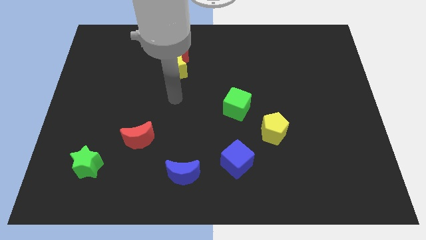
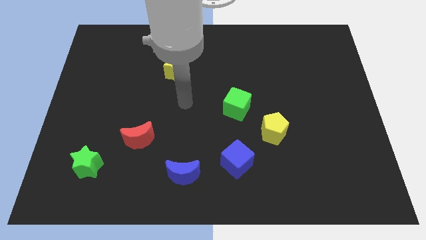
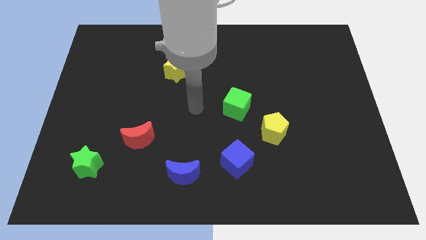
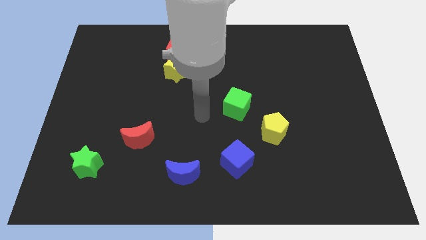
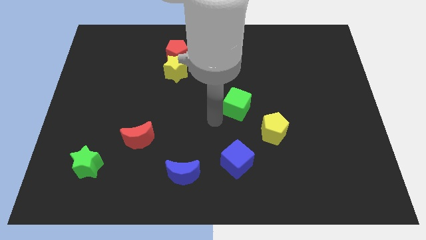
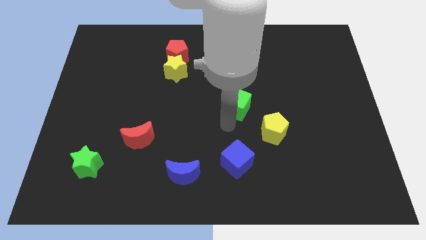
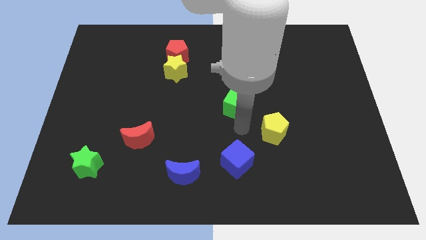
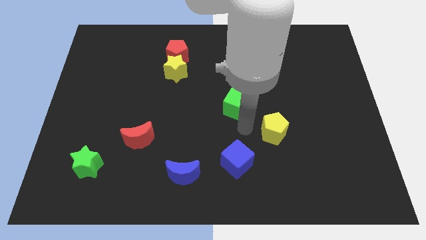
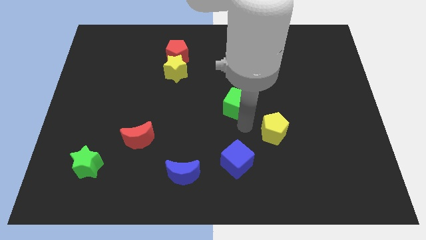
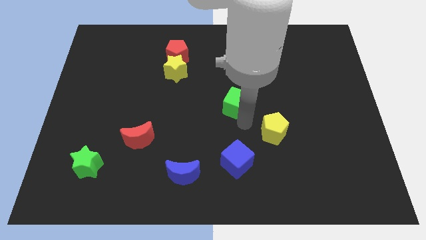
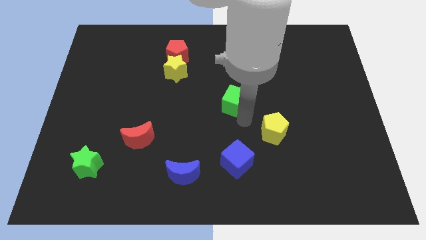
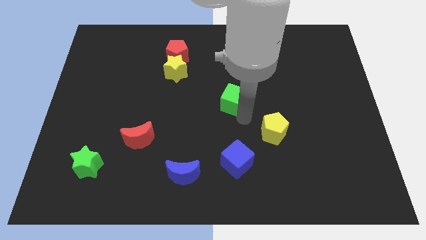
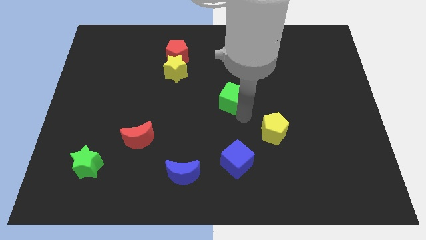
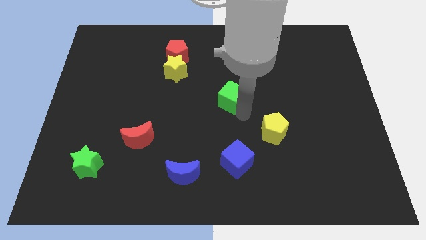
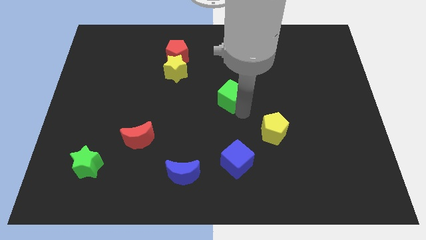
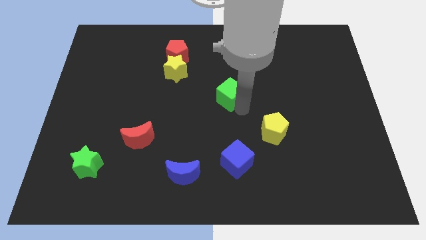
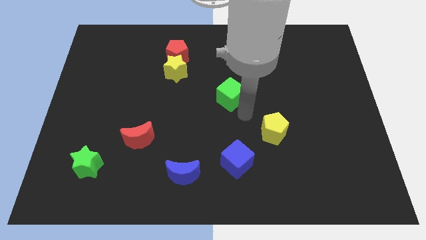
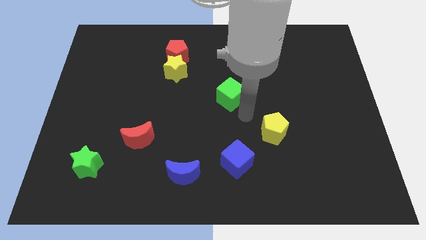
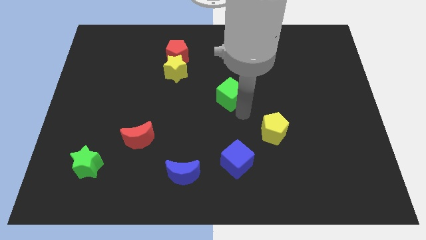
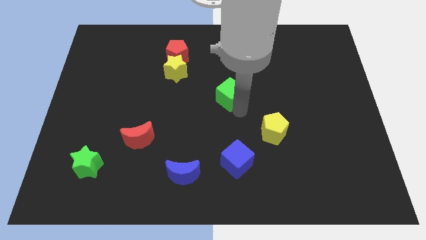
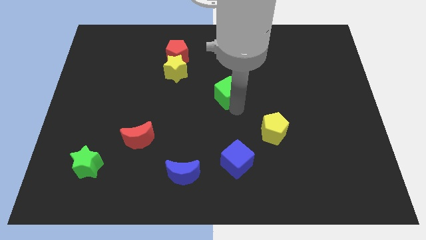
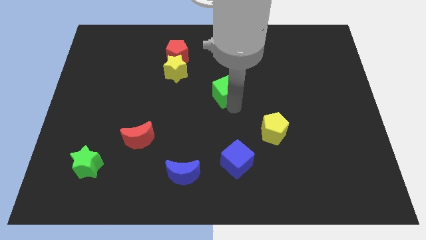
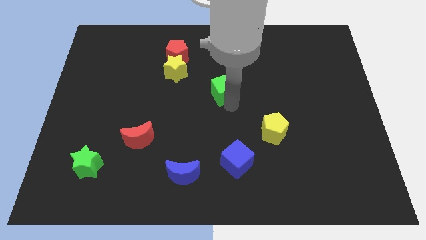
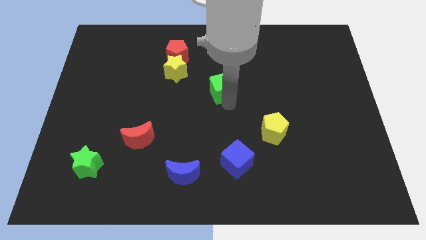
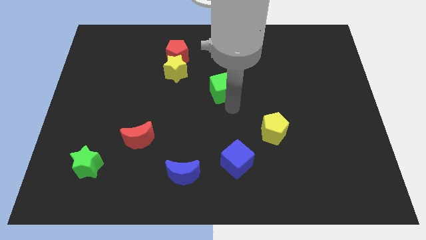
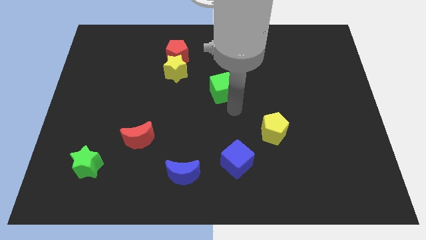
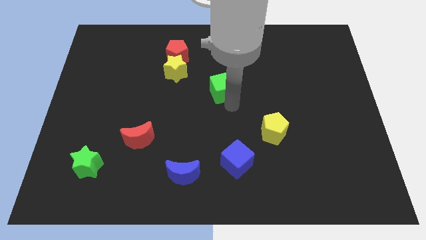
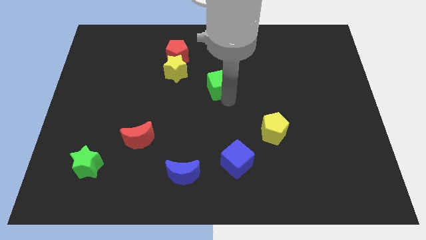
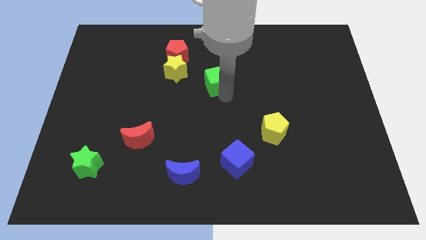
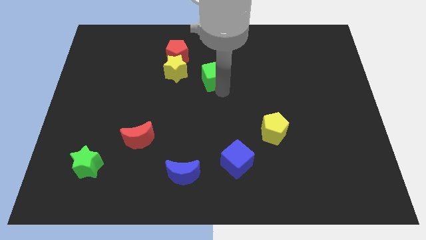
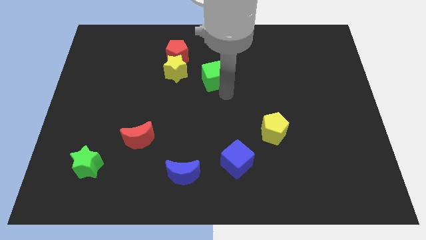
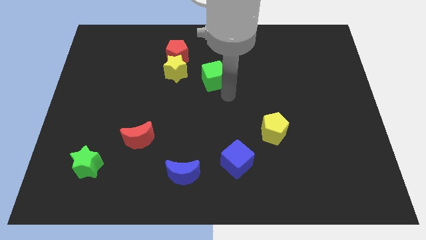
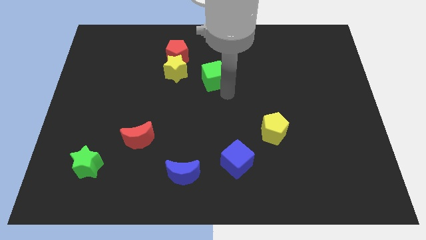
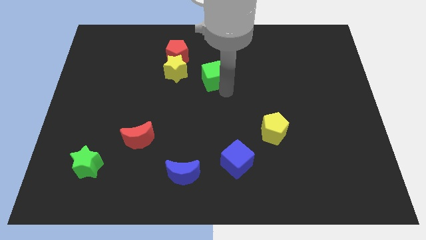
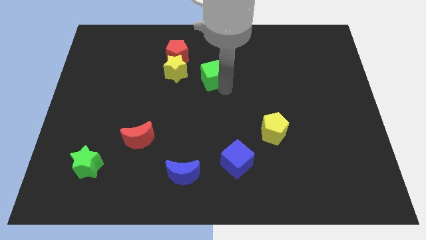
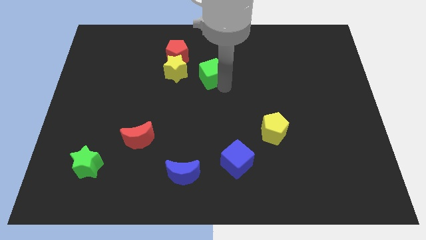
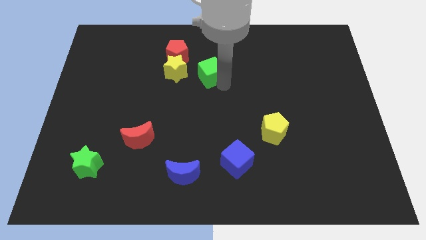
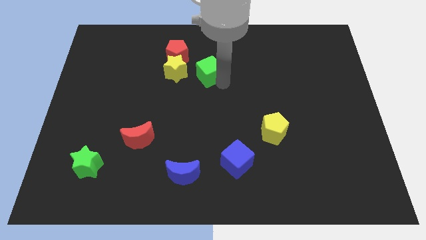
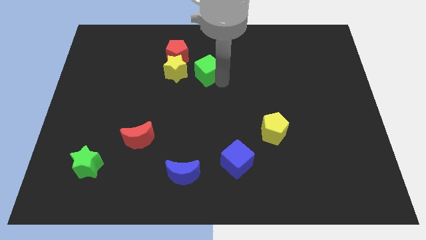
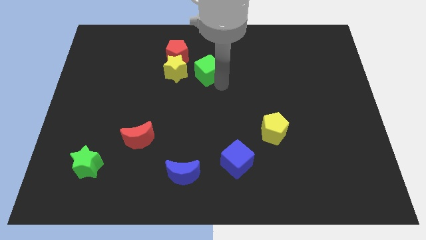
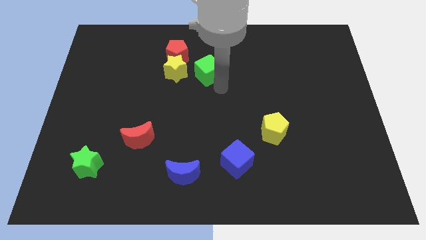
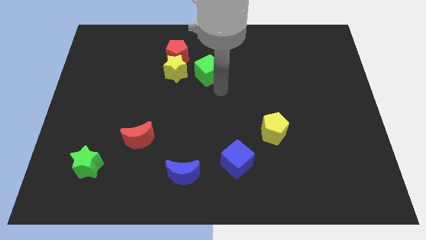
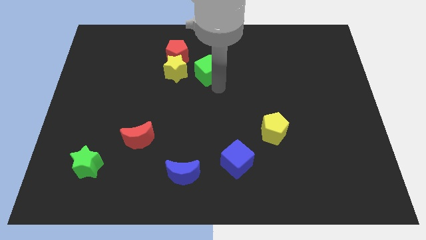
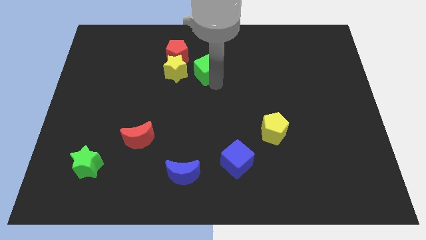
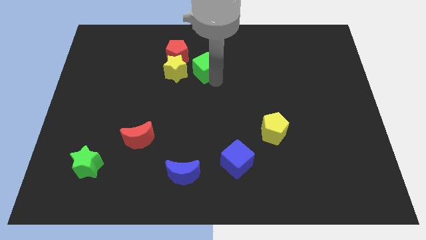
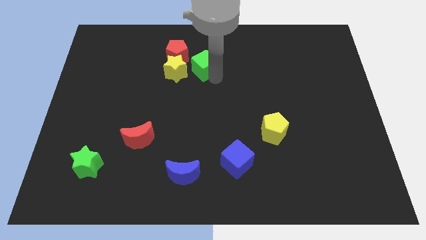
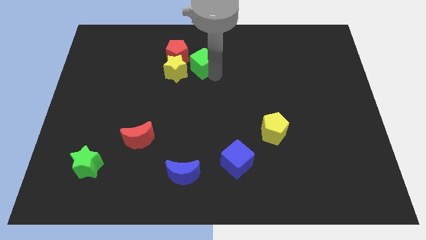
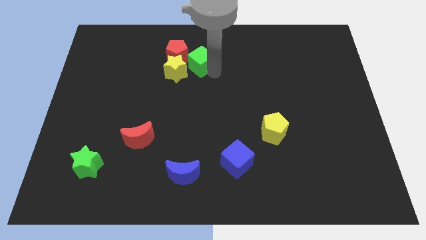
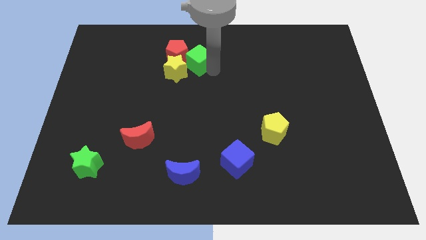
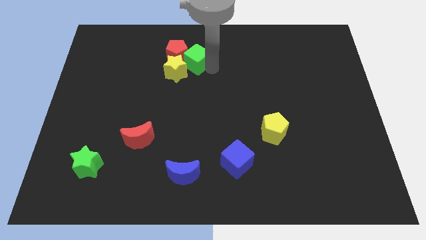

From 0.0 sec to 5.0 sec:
slide the green cube next to the red pentagon

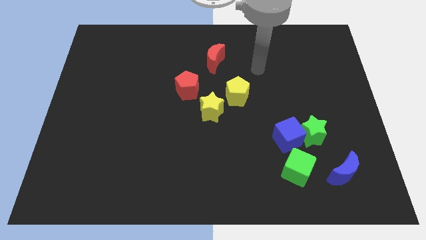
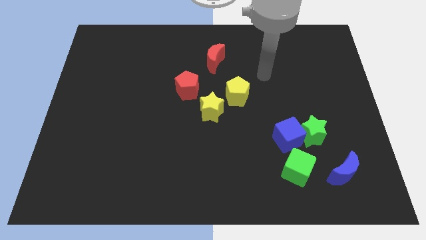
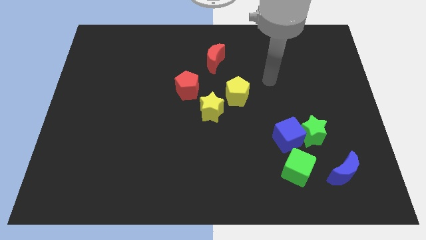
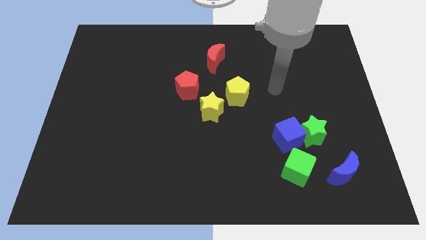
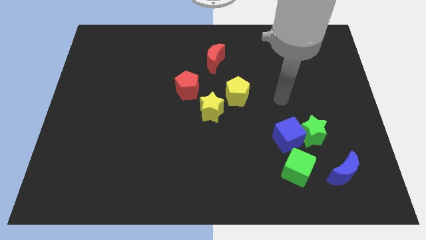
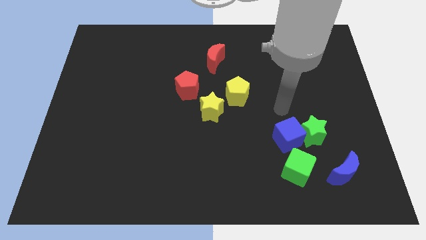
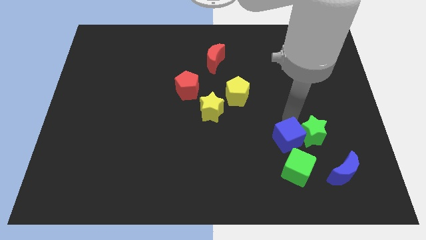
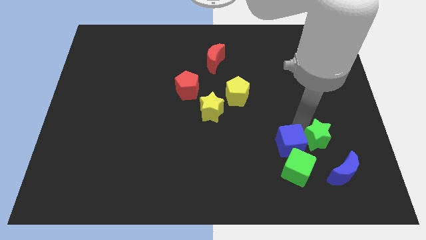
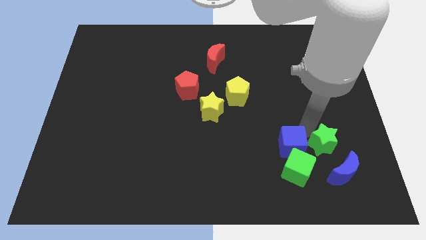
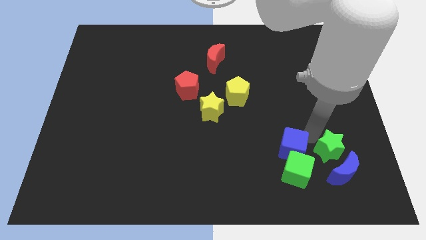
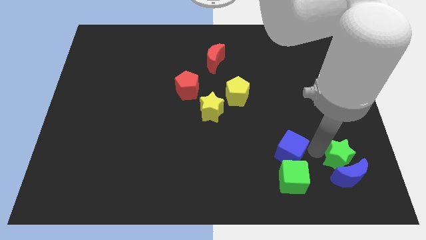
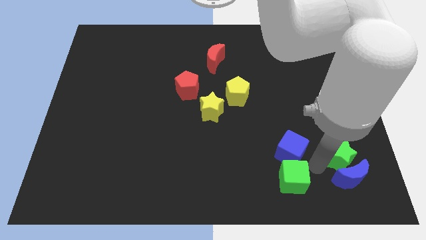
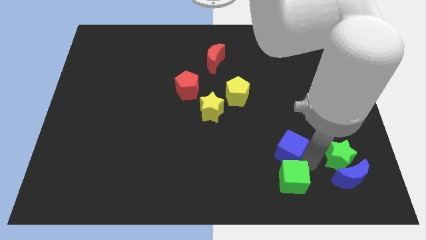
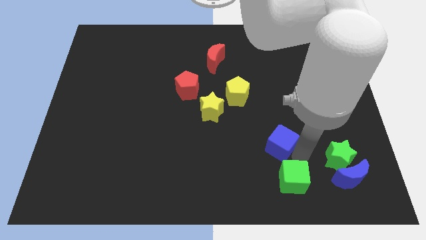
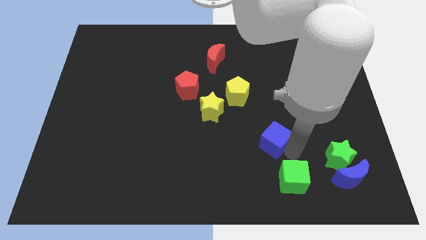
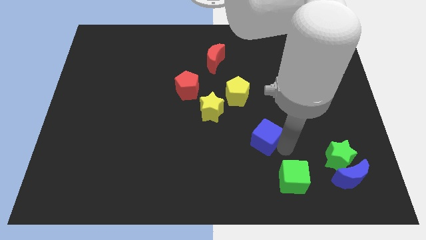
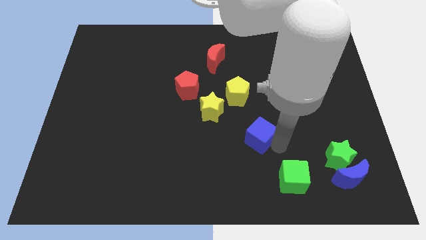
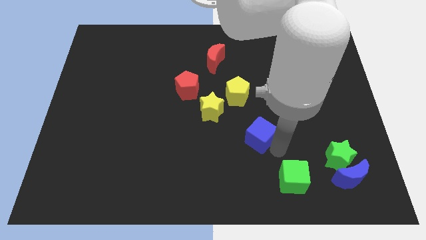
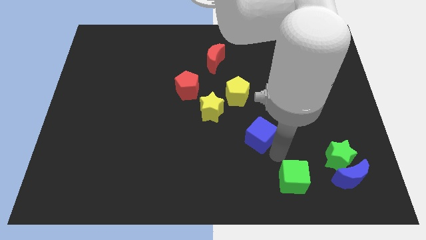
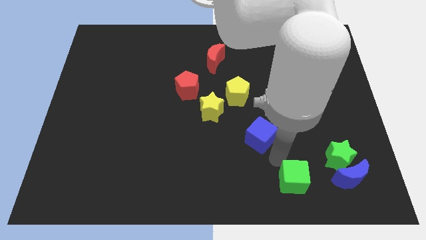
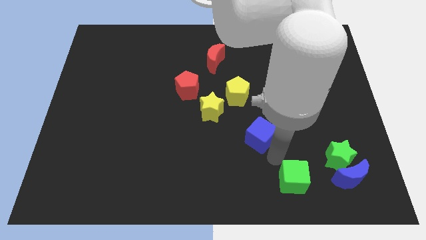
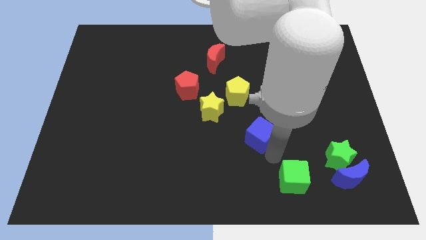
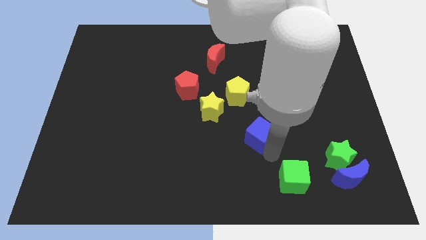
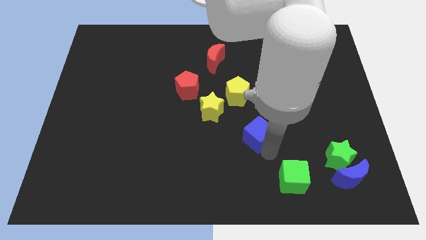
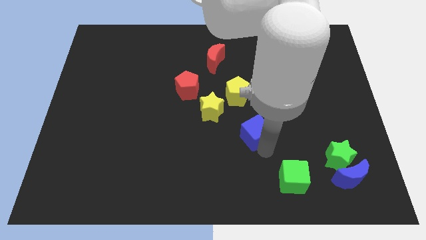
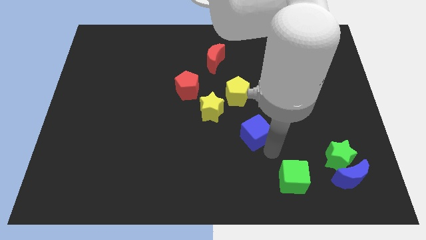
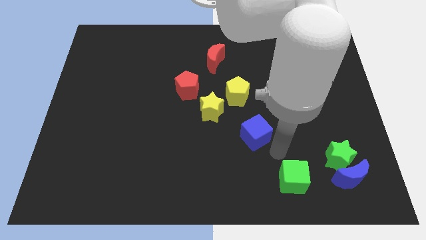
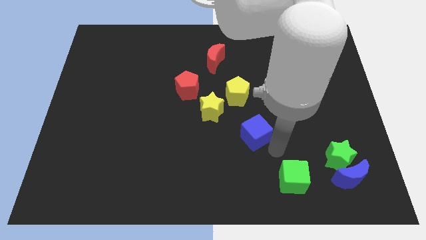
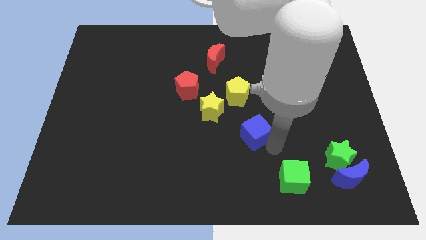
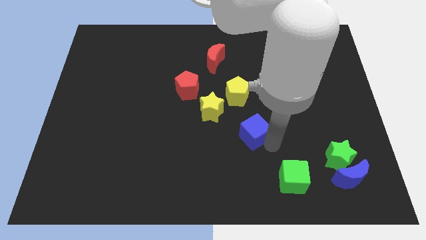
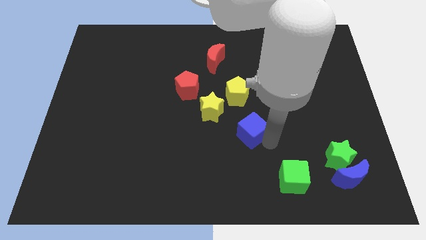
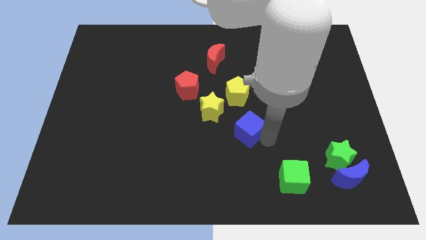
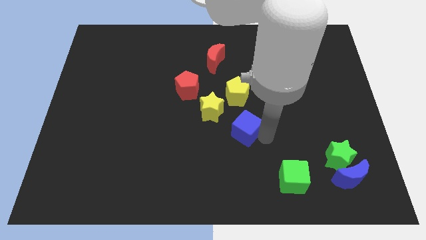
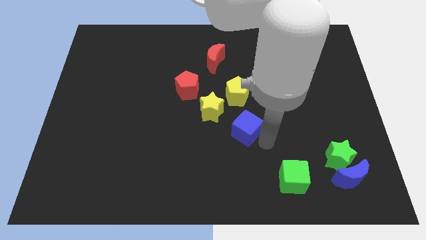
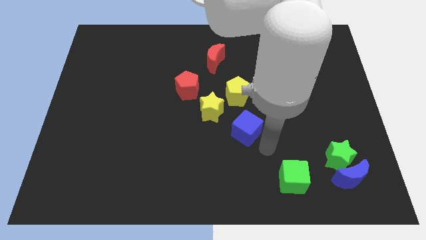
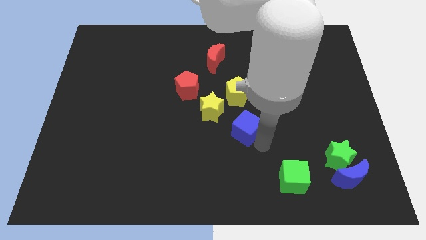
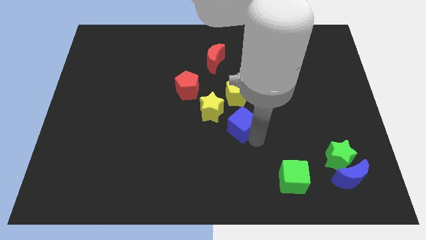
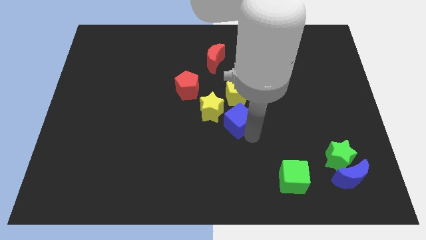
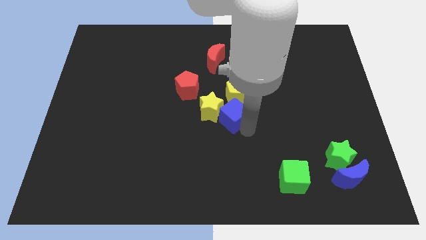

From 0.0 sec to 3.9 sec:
move the blue cube towards the yellow star
